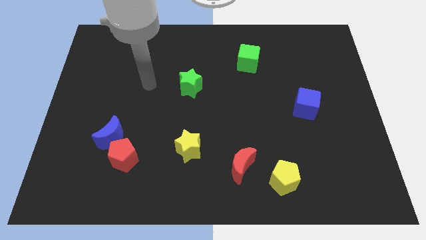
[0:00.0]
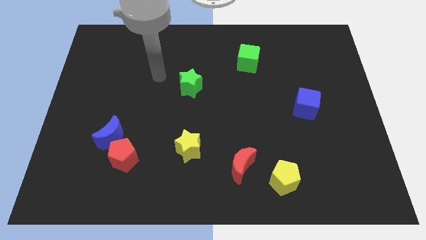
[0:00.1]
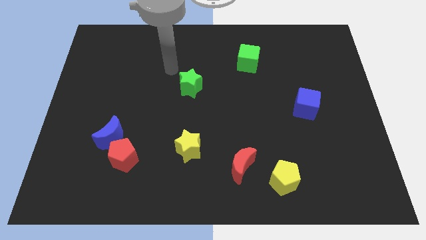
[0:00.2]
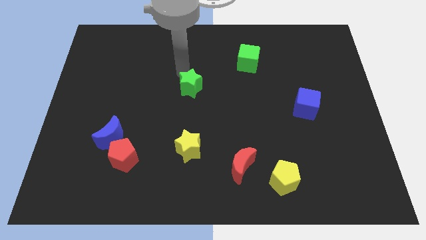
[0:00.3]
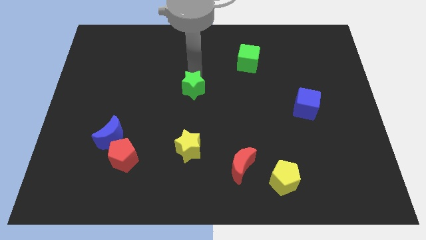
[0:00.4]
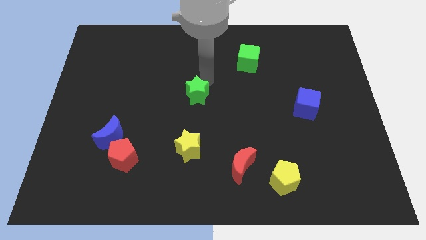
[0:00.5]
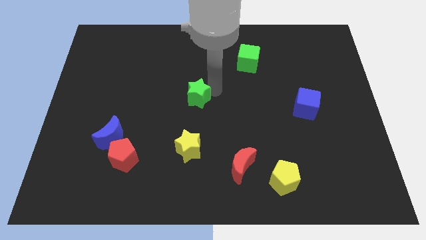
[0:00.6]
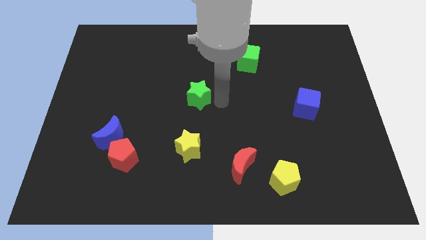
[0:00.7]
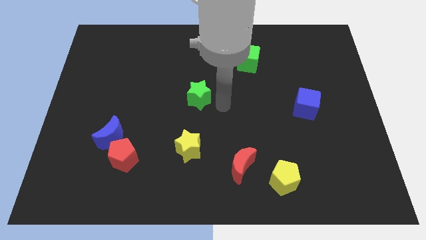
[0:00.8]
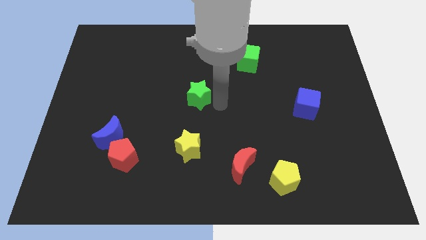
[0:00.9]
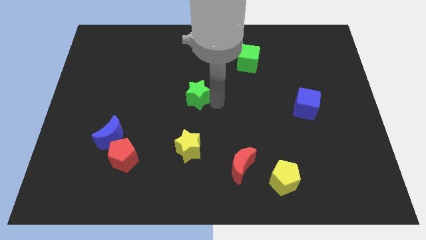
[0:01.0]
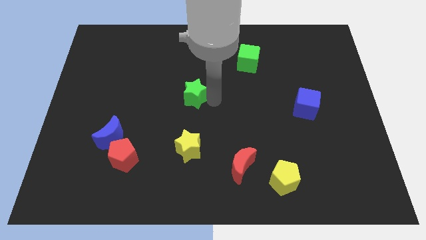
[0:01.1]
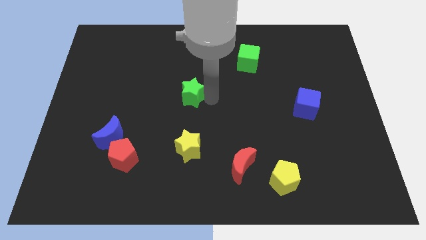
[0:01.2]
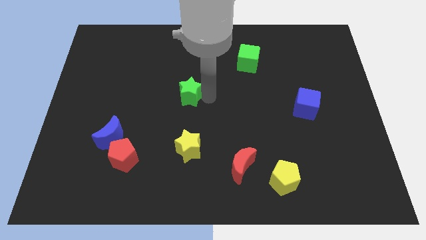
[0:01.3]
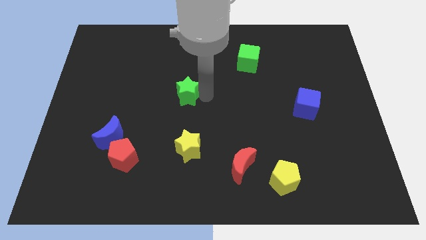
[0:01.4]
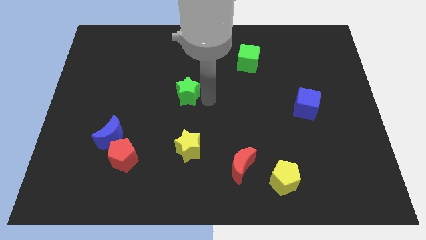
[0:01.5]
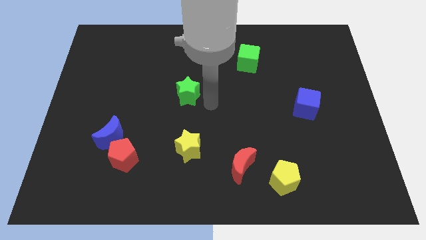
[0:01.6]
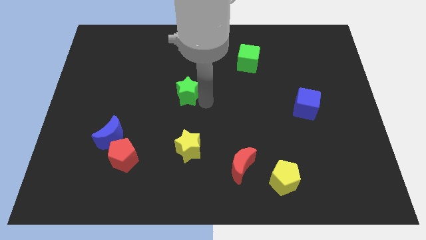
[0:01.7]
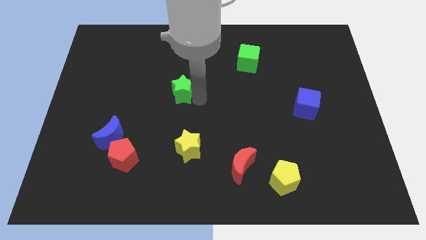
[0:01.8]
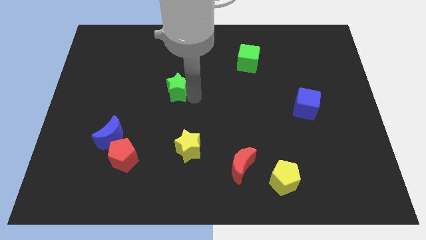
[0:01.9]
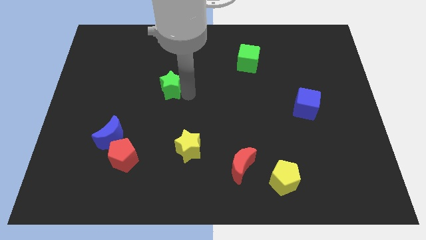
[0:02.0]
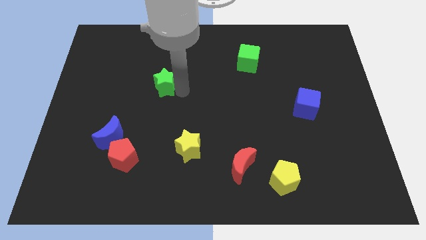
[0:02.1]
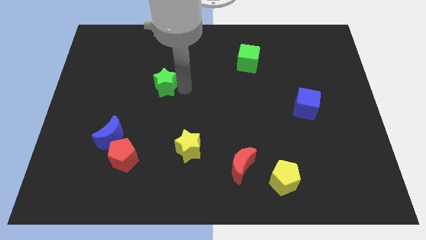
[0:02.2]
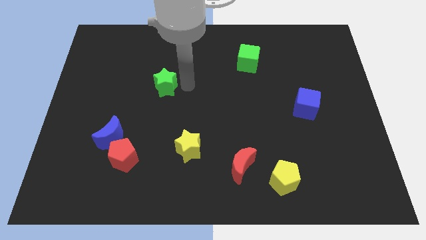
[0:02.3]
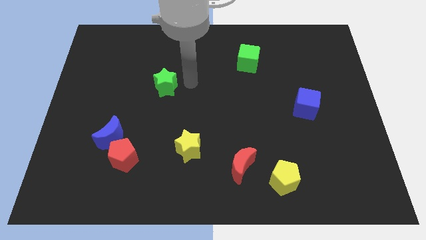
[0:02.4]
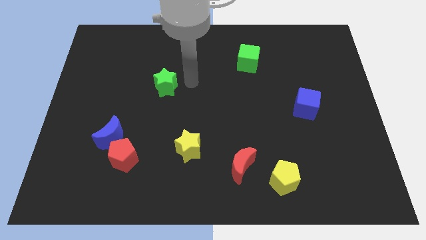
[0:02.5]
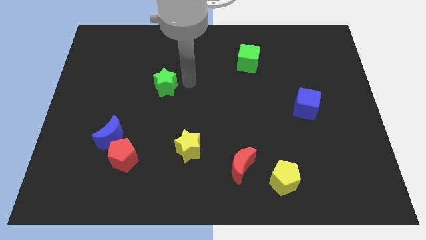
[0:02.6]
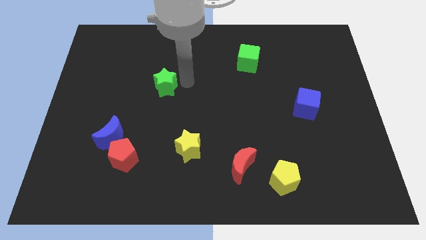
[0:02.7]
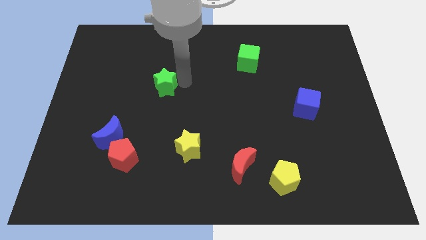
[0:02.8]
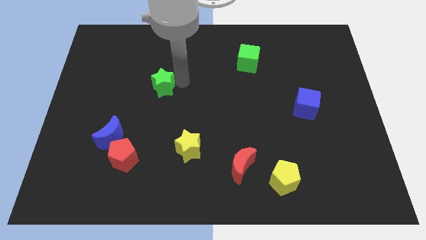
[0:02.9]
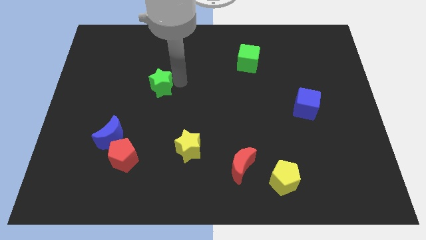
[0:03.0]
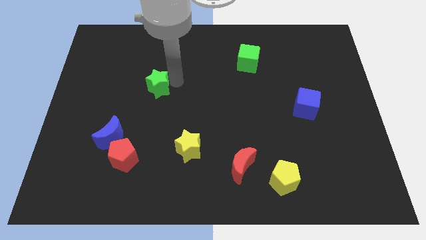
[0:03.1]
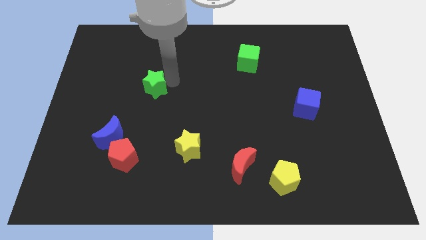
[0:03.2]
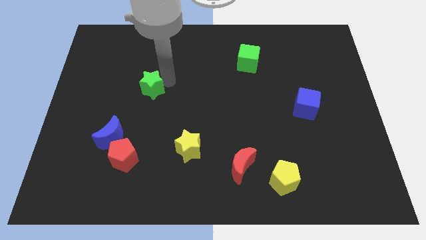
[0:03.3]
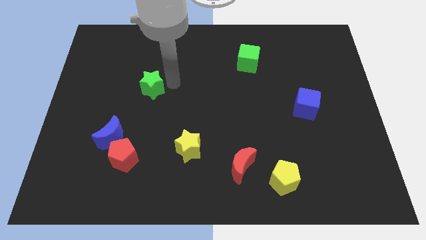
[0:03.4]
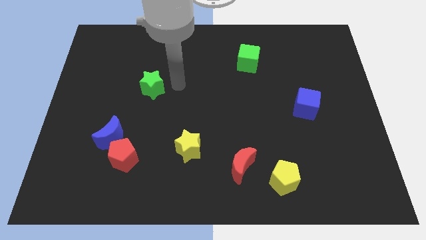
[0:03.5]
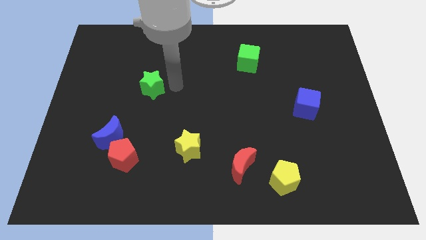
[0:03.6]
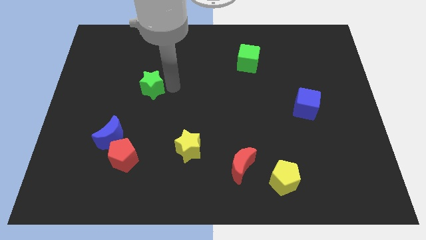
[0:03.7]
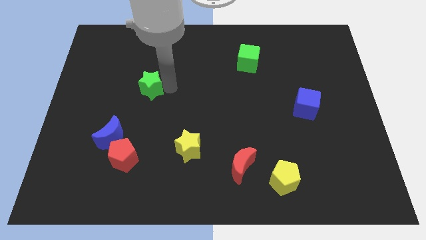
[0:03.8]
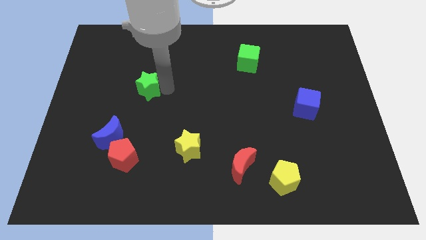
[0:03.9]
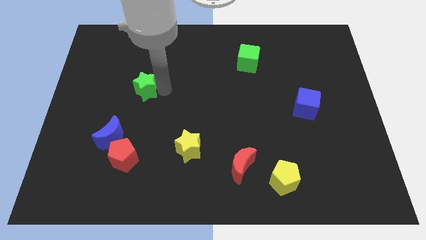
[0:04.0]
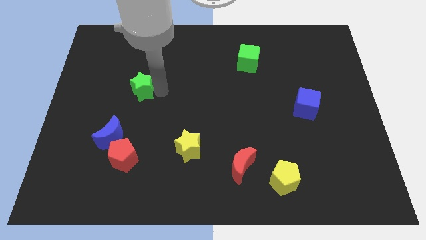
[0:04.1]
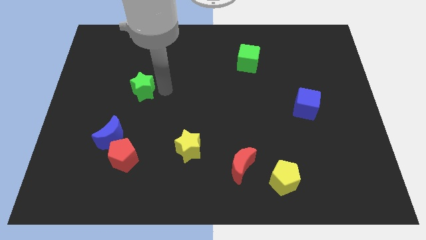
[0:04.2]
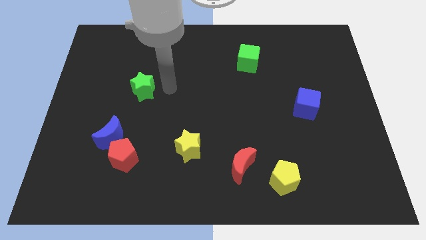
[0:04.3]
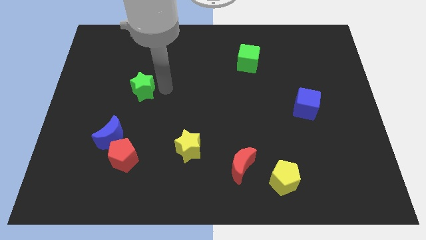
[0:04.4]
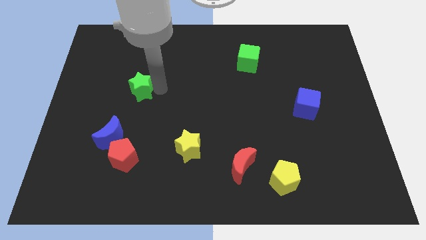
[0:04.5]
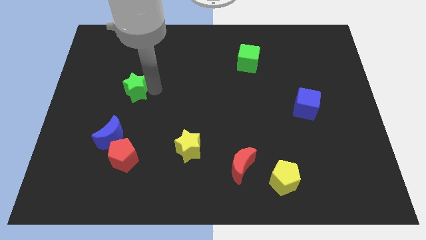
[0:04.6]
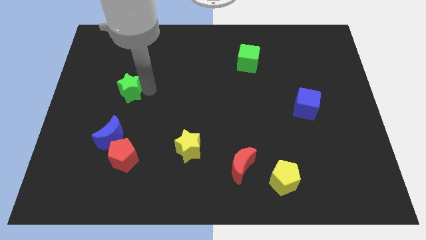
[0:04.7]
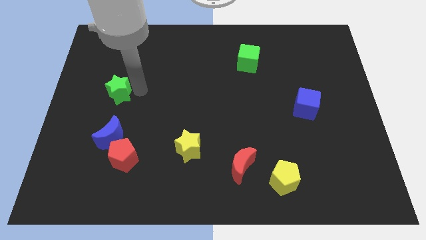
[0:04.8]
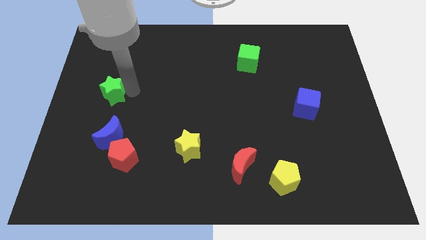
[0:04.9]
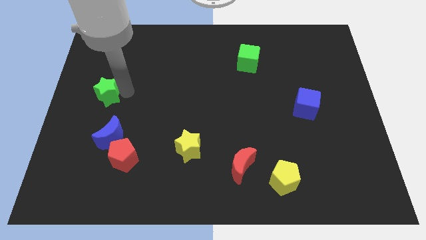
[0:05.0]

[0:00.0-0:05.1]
push the green star to the left side
